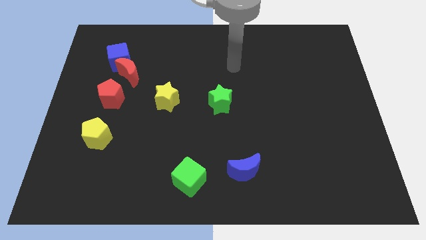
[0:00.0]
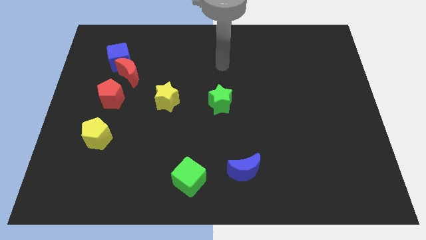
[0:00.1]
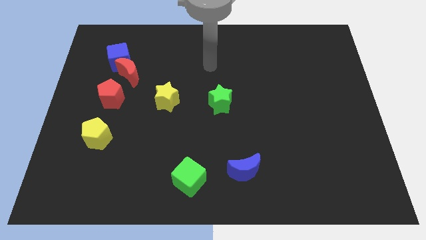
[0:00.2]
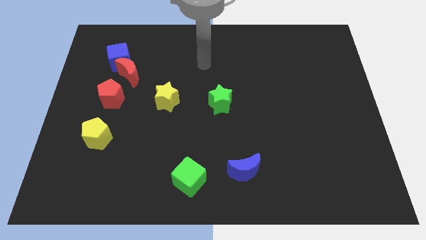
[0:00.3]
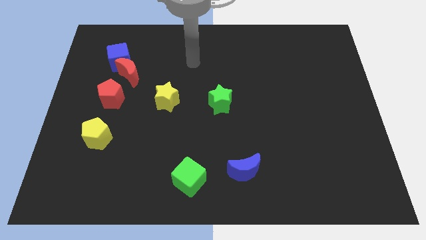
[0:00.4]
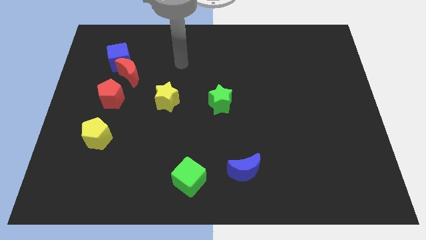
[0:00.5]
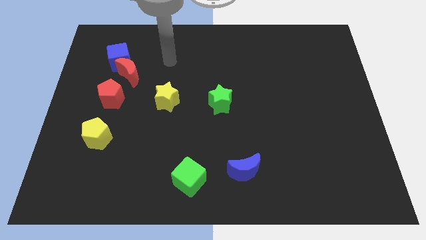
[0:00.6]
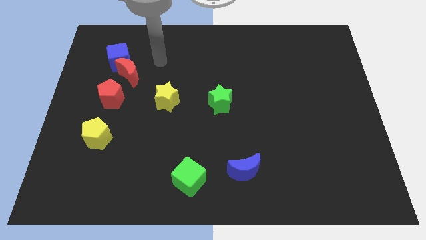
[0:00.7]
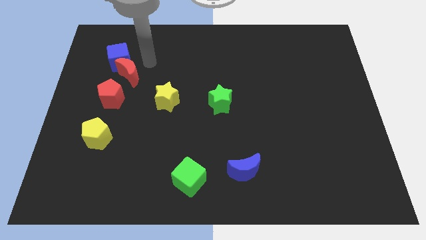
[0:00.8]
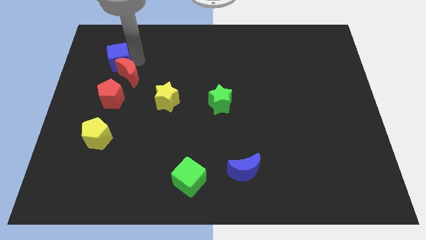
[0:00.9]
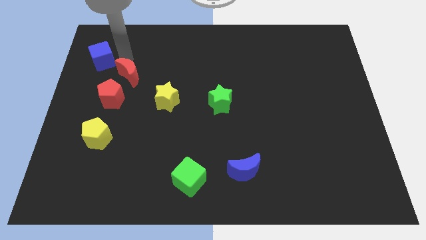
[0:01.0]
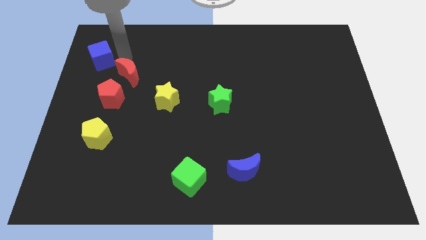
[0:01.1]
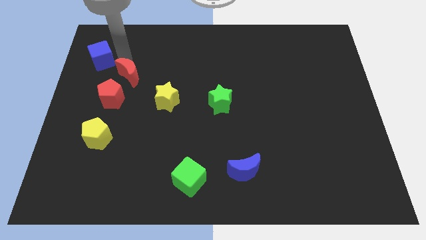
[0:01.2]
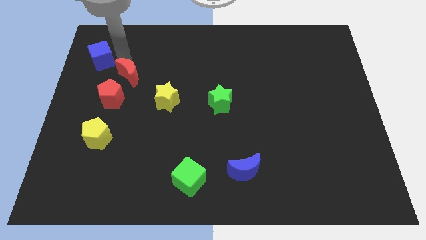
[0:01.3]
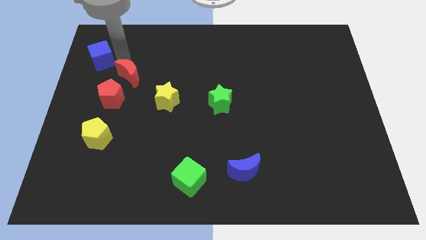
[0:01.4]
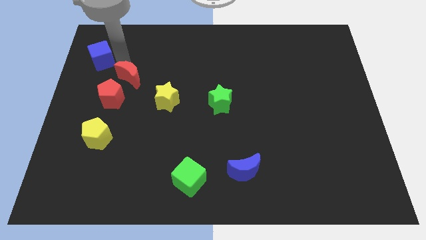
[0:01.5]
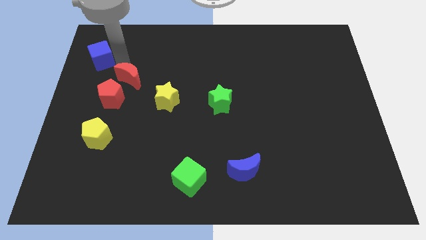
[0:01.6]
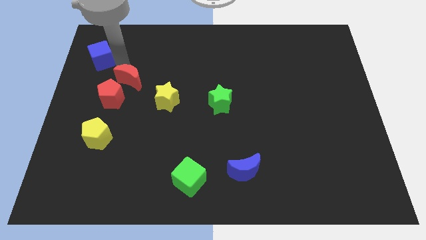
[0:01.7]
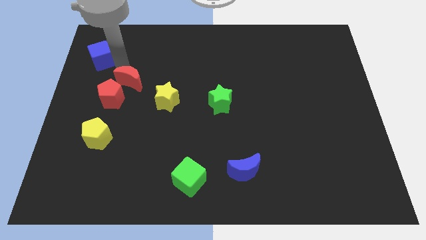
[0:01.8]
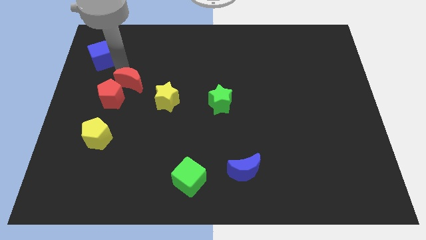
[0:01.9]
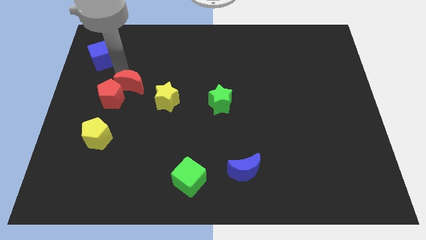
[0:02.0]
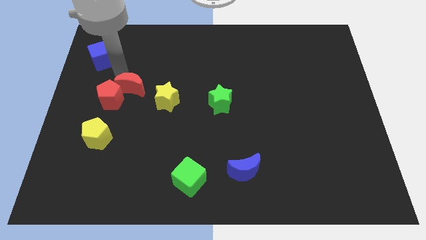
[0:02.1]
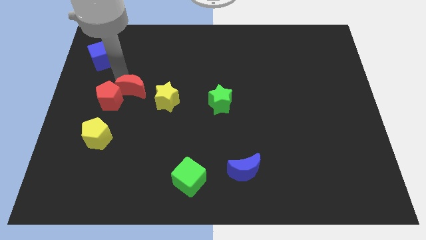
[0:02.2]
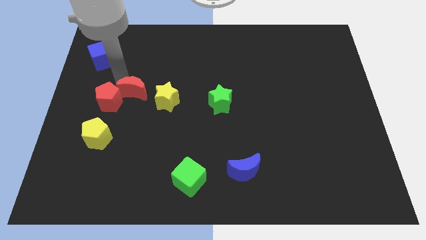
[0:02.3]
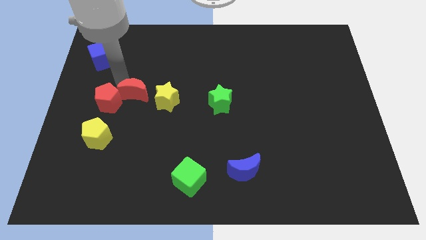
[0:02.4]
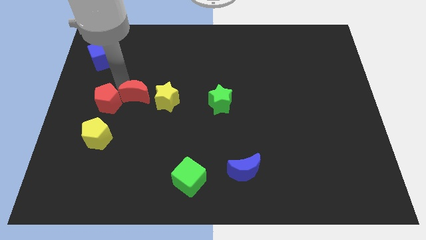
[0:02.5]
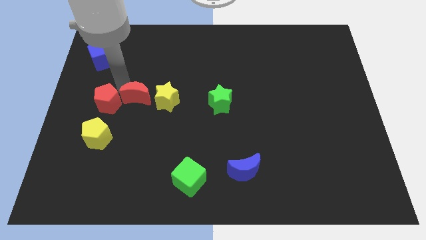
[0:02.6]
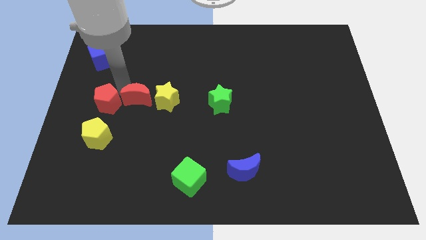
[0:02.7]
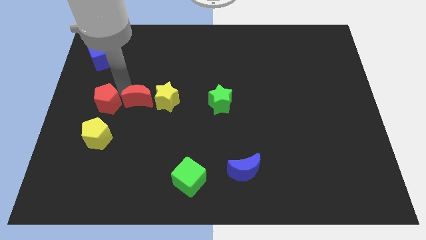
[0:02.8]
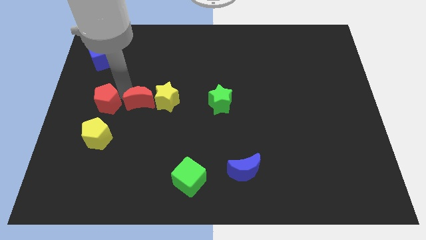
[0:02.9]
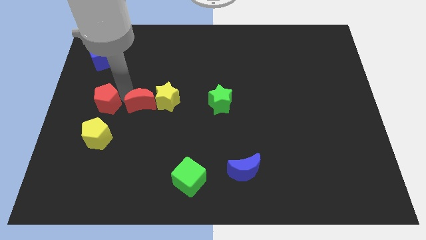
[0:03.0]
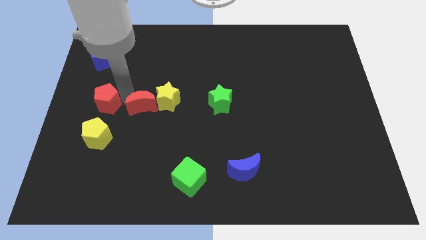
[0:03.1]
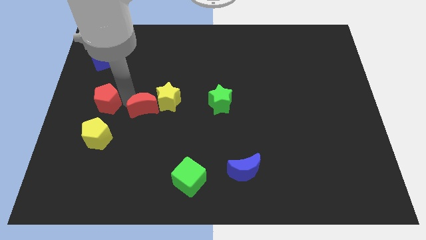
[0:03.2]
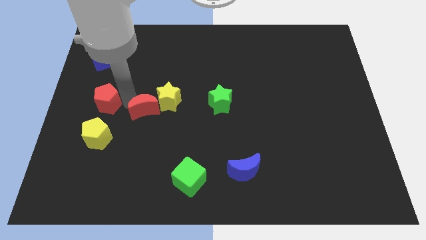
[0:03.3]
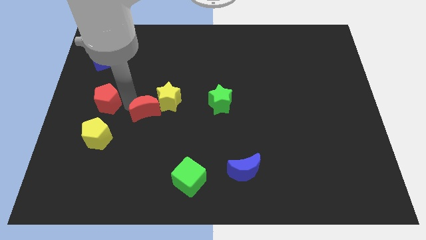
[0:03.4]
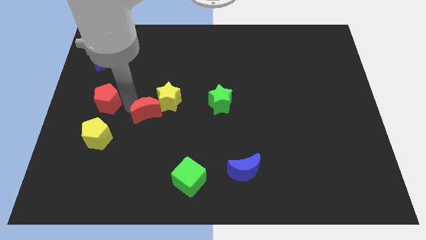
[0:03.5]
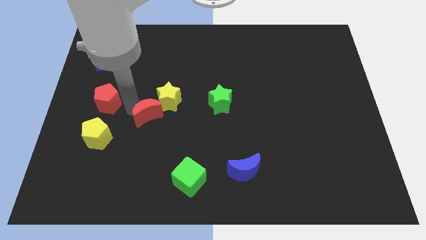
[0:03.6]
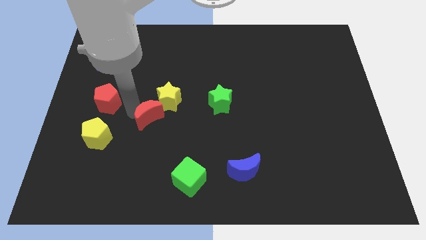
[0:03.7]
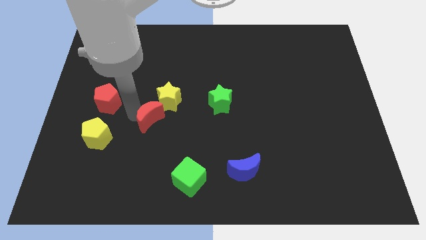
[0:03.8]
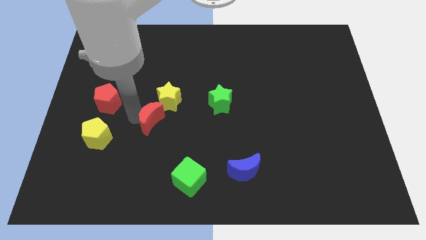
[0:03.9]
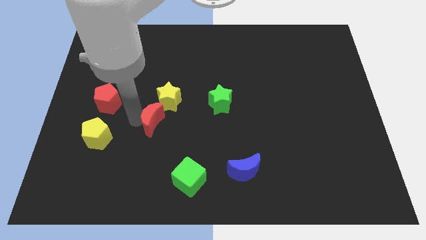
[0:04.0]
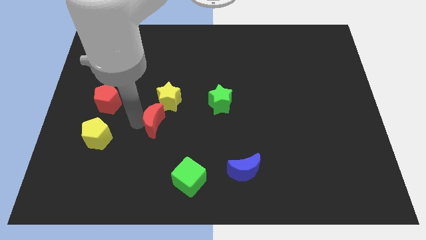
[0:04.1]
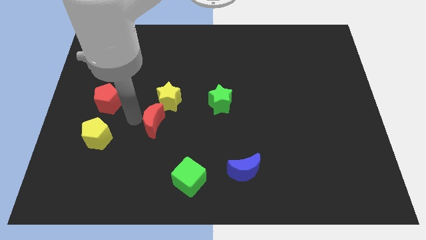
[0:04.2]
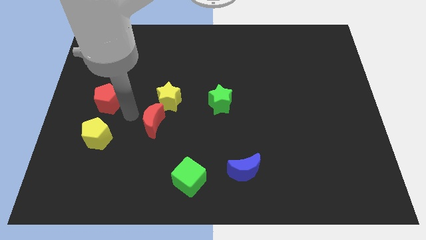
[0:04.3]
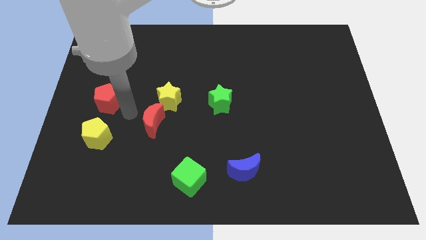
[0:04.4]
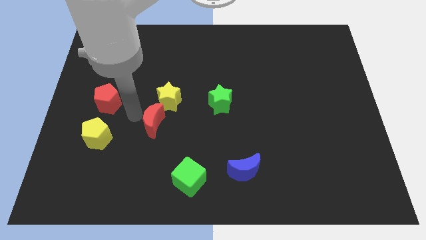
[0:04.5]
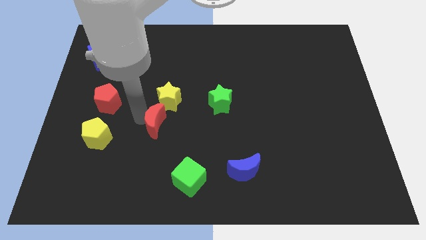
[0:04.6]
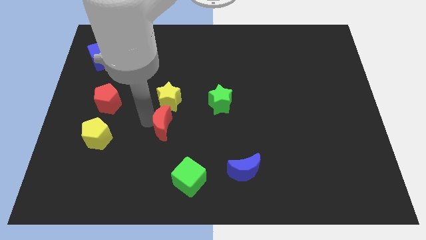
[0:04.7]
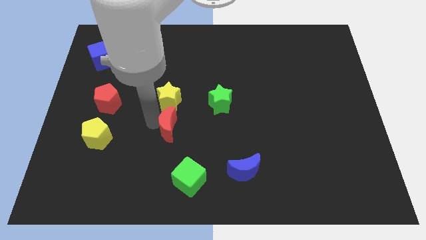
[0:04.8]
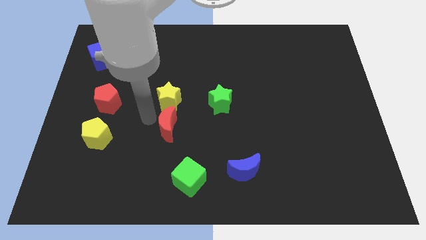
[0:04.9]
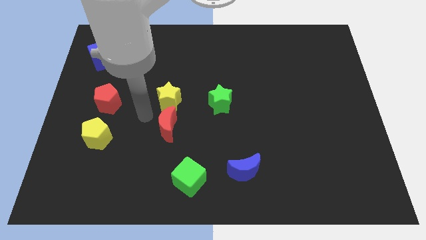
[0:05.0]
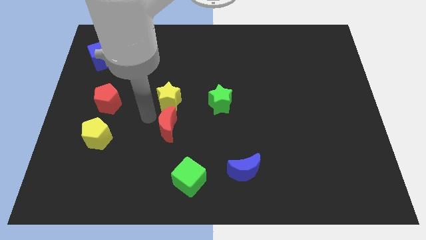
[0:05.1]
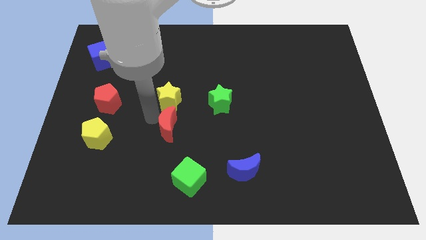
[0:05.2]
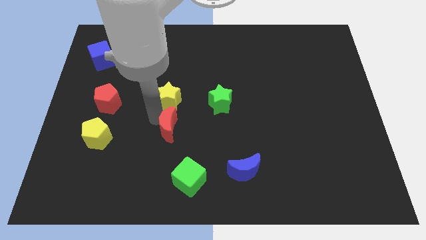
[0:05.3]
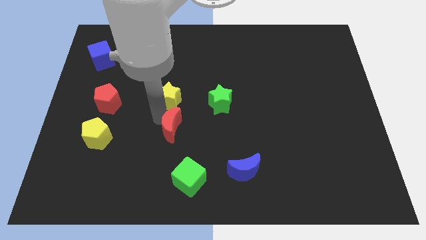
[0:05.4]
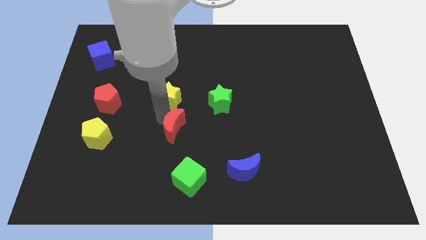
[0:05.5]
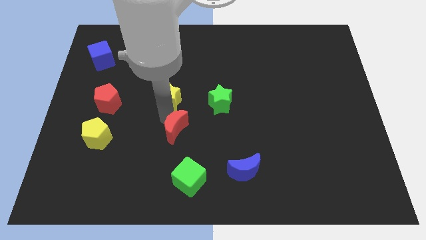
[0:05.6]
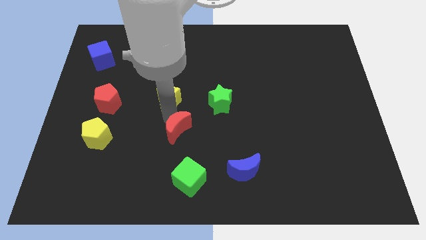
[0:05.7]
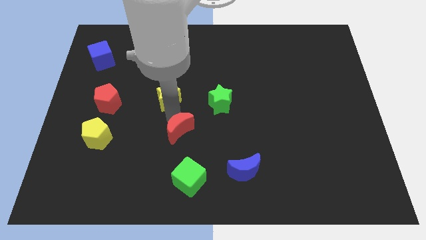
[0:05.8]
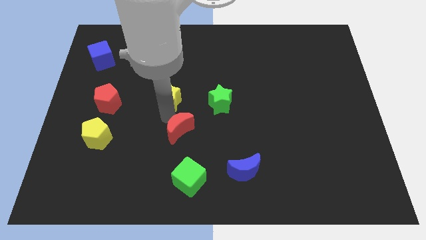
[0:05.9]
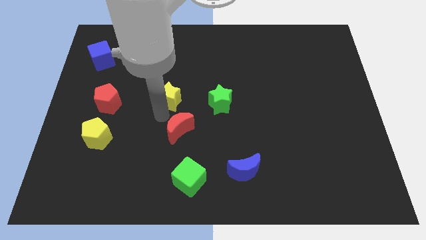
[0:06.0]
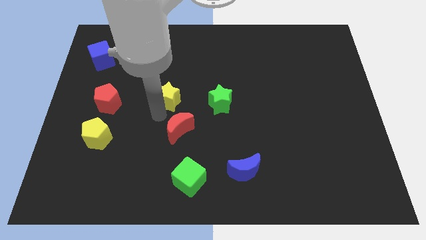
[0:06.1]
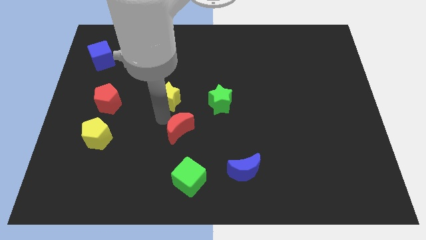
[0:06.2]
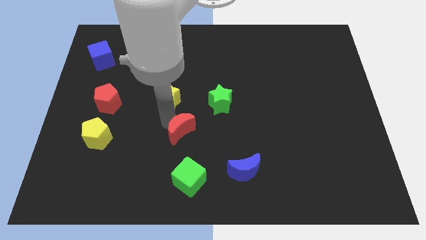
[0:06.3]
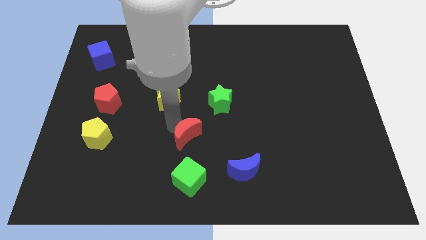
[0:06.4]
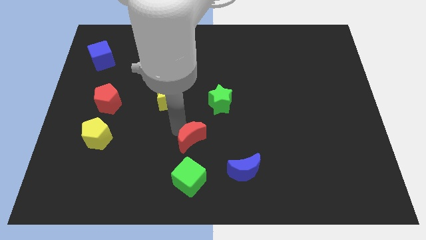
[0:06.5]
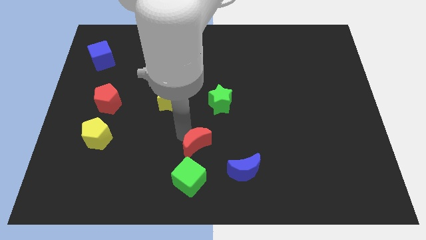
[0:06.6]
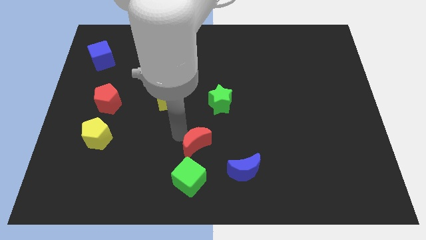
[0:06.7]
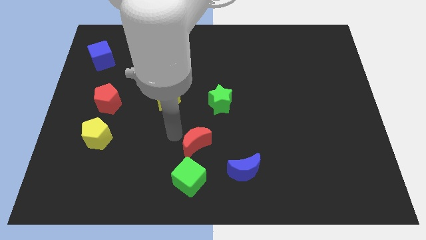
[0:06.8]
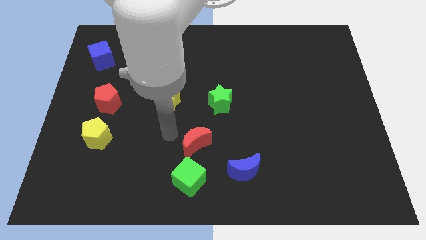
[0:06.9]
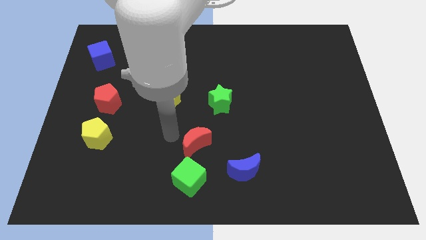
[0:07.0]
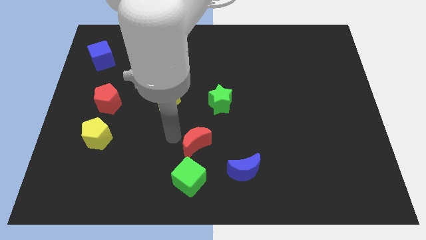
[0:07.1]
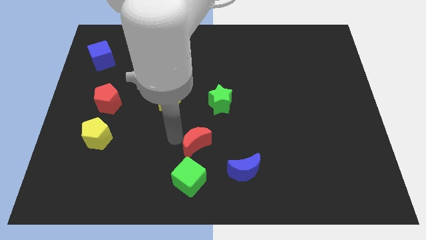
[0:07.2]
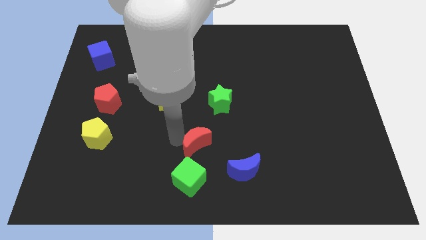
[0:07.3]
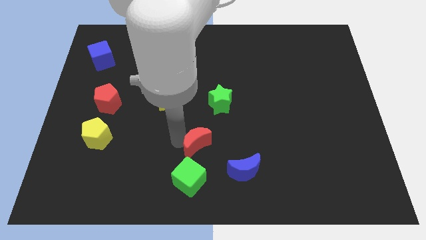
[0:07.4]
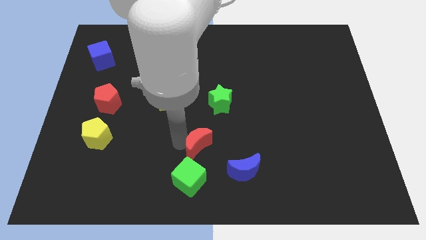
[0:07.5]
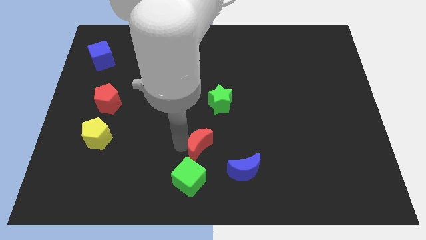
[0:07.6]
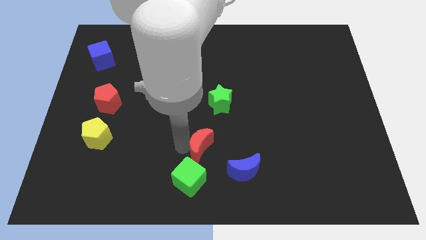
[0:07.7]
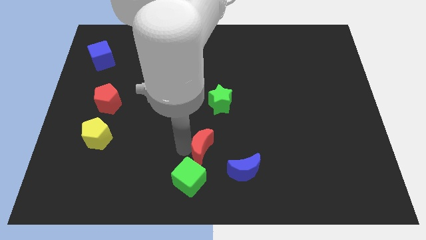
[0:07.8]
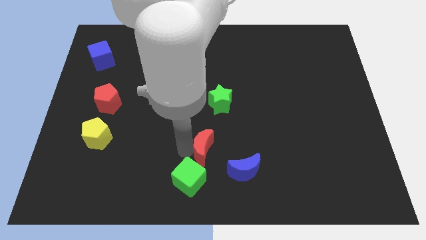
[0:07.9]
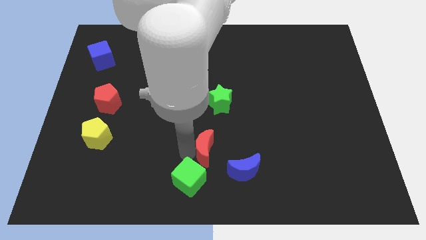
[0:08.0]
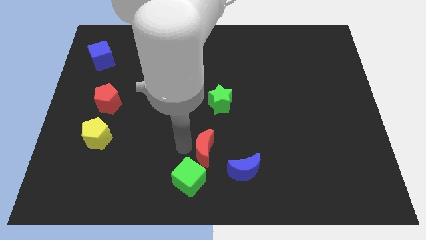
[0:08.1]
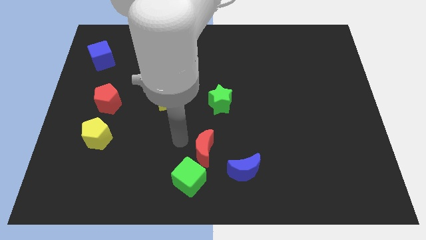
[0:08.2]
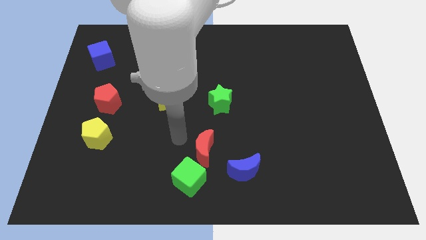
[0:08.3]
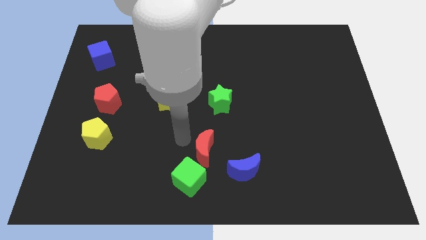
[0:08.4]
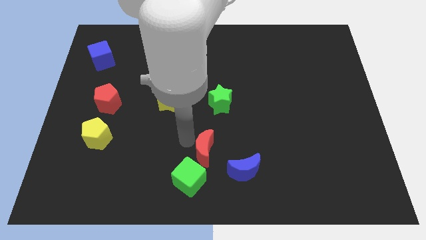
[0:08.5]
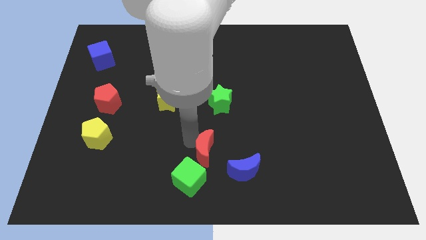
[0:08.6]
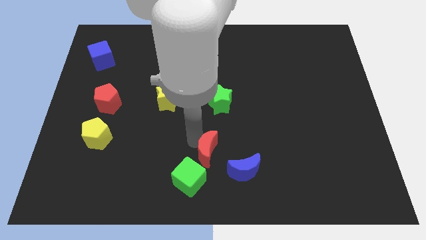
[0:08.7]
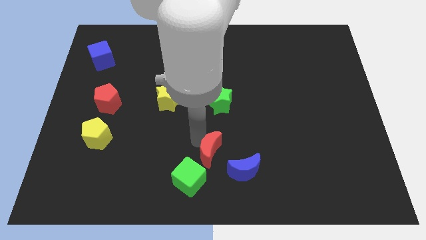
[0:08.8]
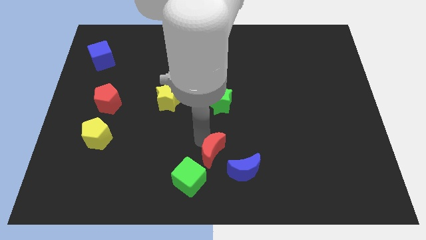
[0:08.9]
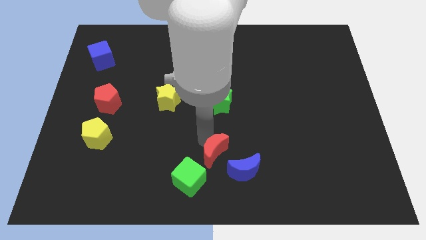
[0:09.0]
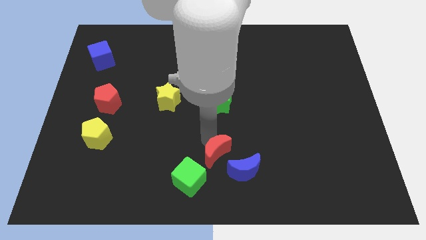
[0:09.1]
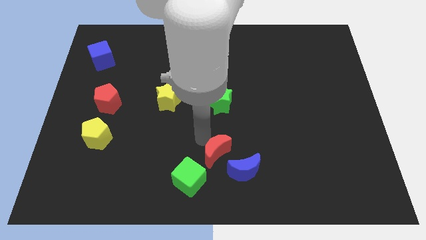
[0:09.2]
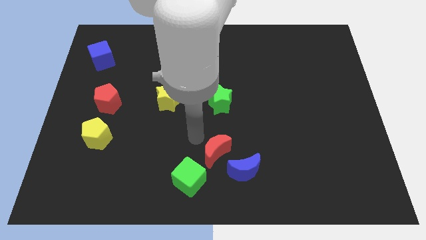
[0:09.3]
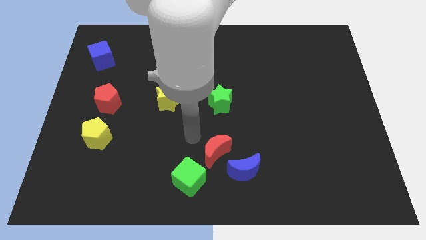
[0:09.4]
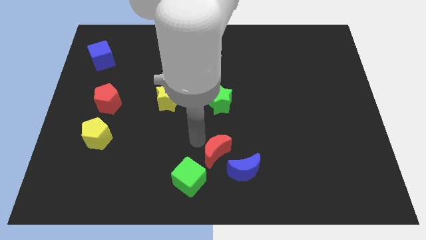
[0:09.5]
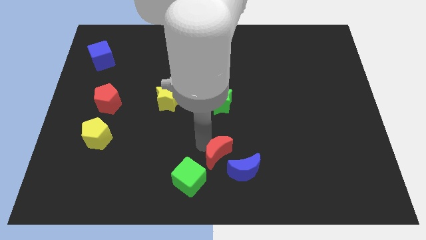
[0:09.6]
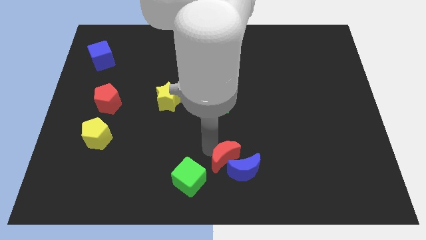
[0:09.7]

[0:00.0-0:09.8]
move the red moon to the blue moon
